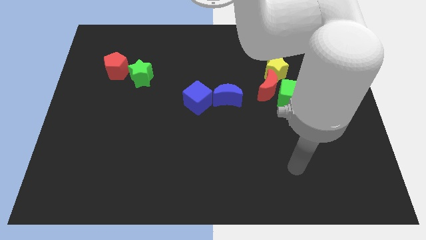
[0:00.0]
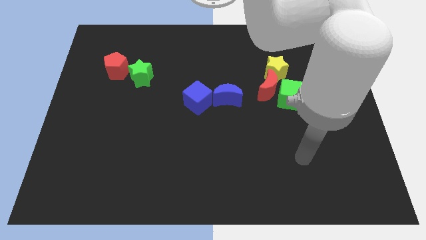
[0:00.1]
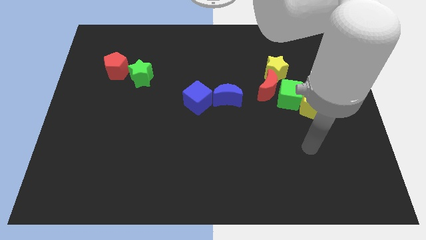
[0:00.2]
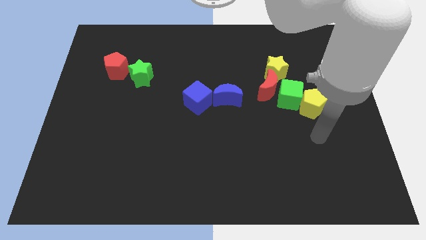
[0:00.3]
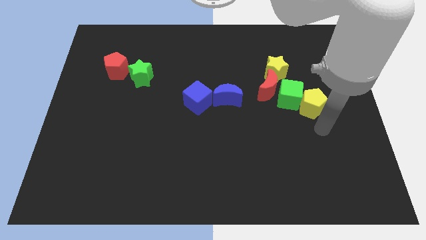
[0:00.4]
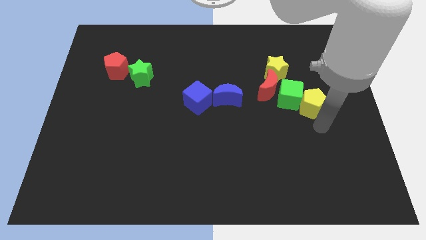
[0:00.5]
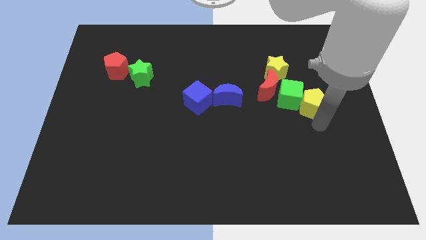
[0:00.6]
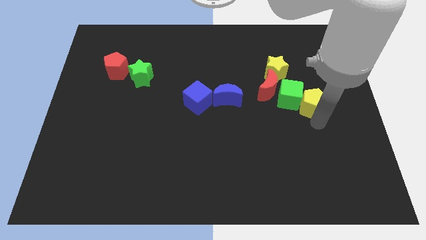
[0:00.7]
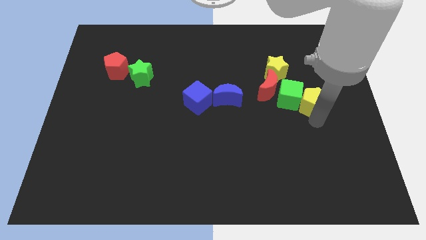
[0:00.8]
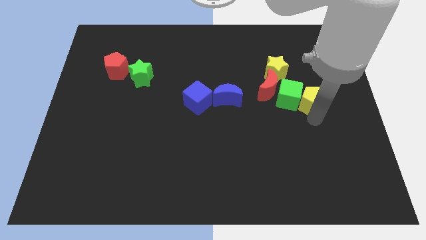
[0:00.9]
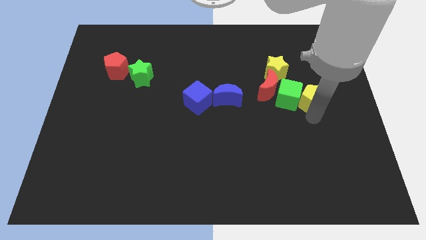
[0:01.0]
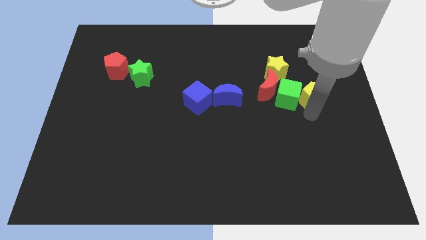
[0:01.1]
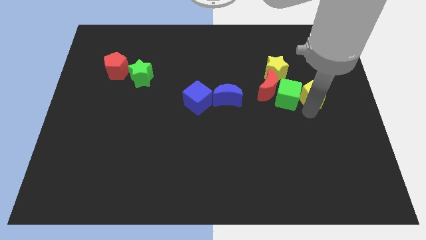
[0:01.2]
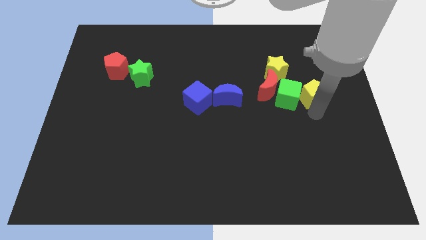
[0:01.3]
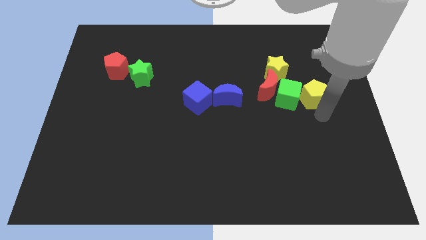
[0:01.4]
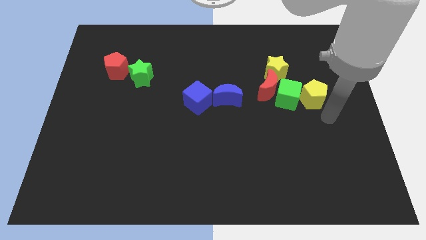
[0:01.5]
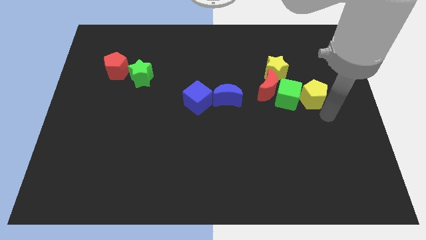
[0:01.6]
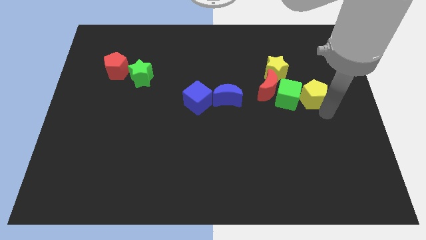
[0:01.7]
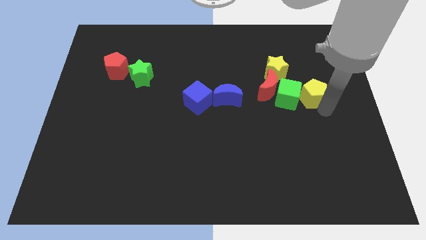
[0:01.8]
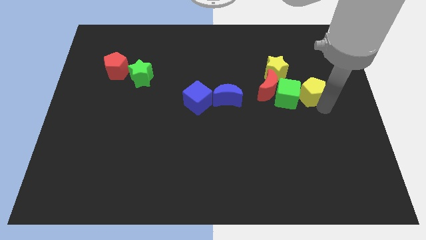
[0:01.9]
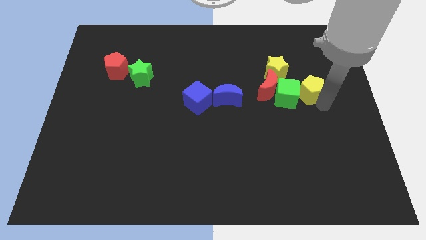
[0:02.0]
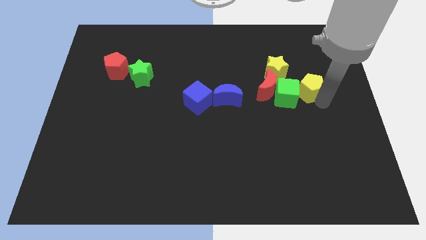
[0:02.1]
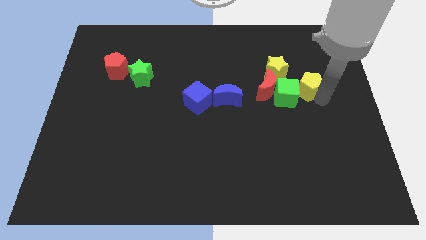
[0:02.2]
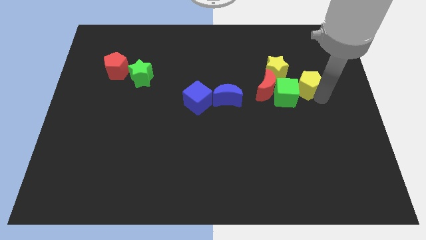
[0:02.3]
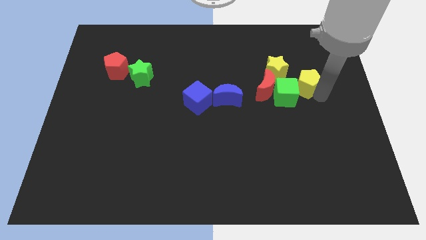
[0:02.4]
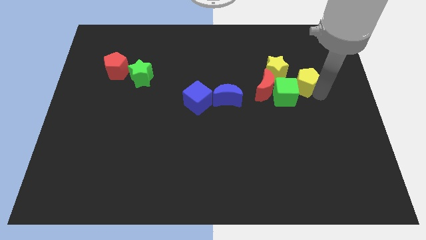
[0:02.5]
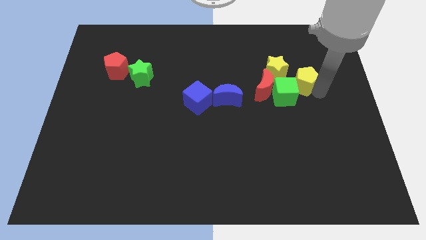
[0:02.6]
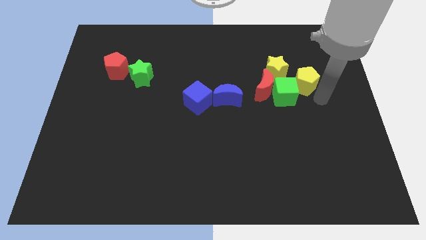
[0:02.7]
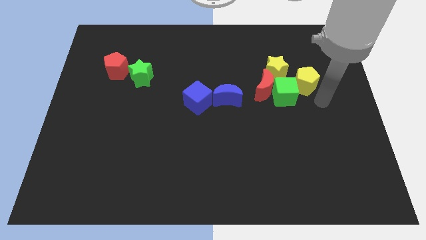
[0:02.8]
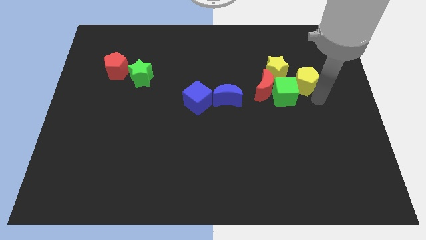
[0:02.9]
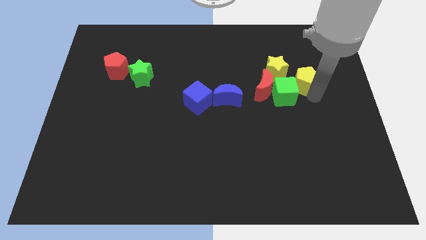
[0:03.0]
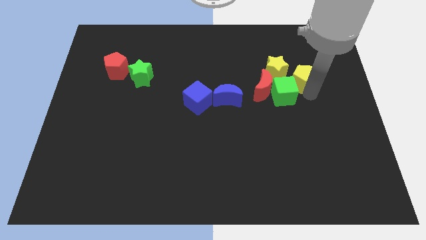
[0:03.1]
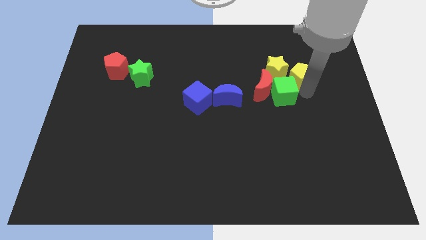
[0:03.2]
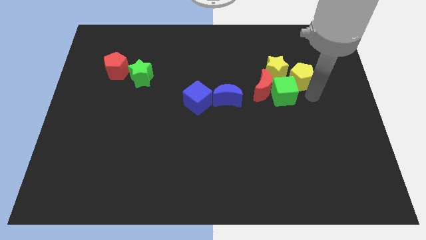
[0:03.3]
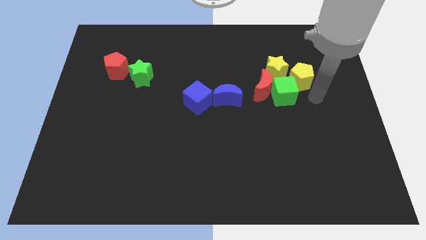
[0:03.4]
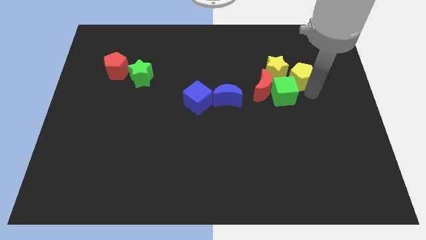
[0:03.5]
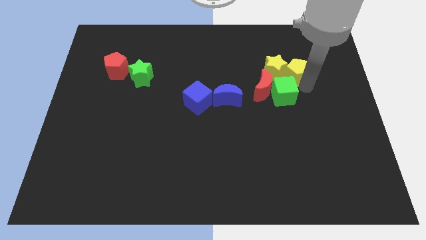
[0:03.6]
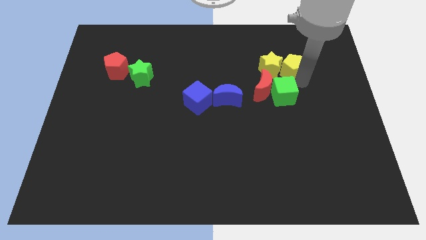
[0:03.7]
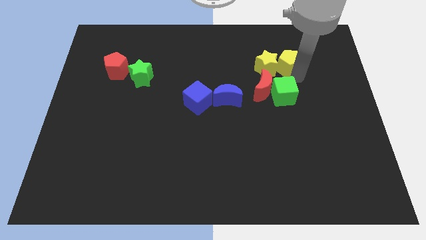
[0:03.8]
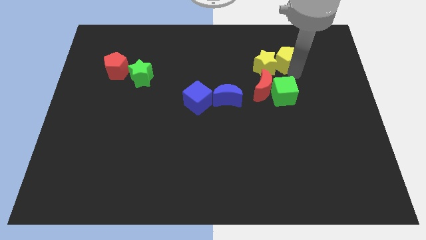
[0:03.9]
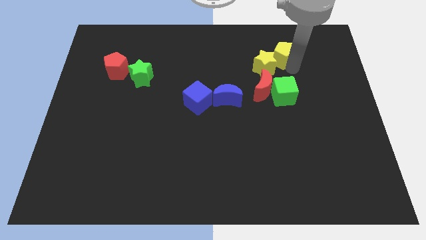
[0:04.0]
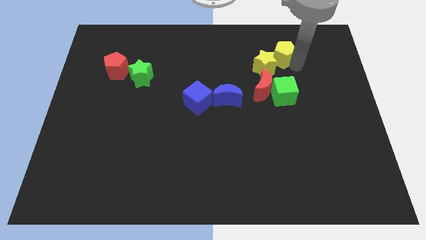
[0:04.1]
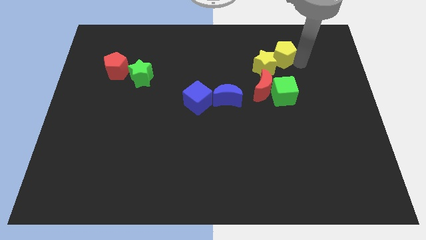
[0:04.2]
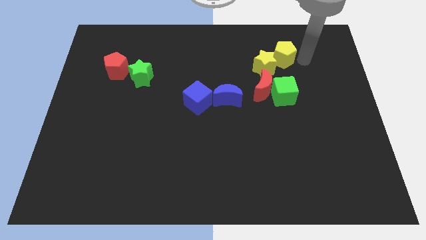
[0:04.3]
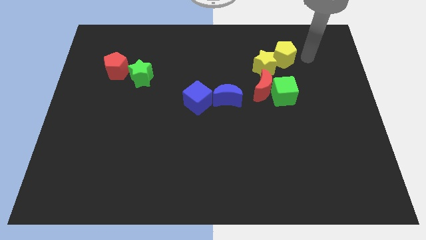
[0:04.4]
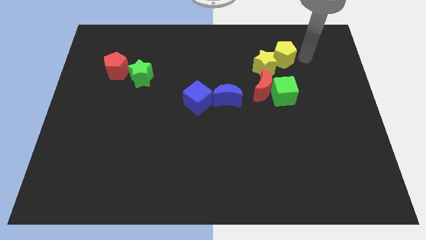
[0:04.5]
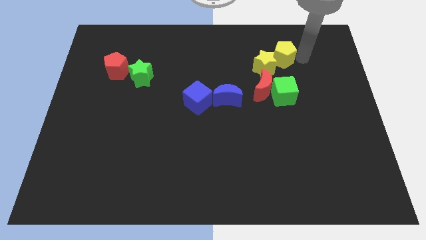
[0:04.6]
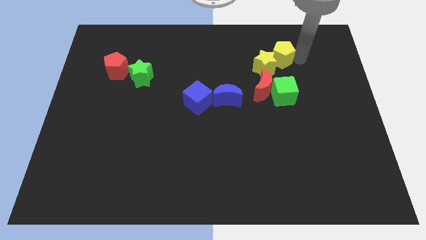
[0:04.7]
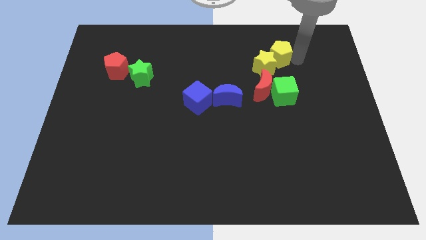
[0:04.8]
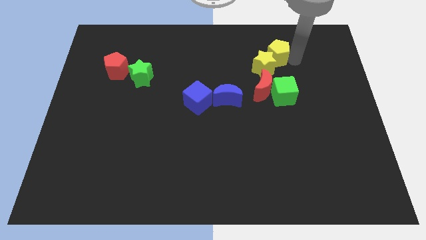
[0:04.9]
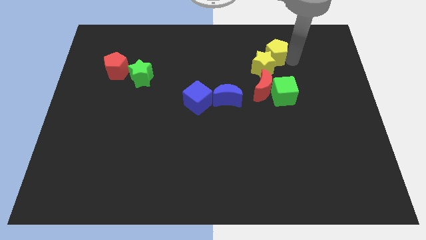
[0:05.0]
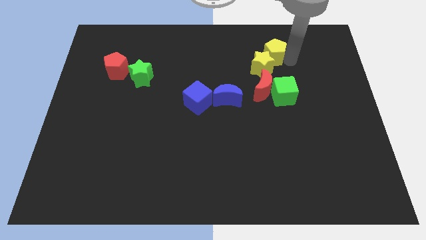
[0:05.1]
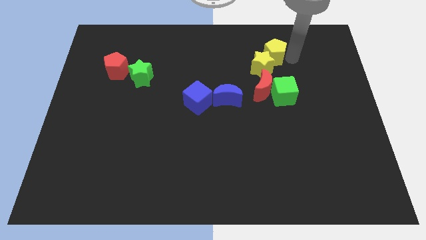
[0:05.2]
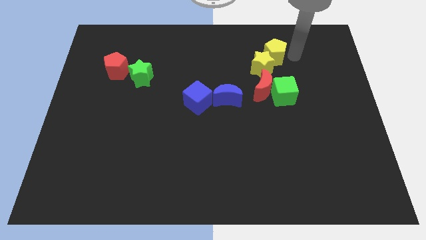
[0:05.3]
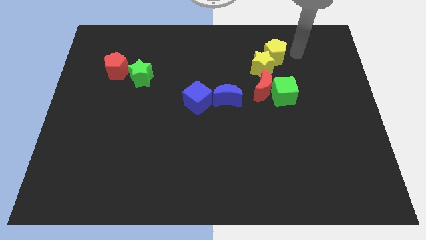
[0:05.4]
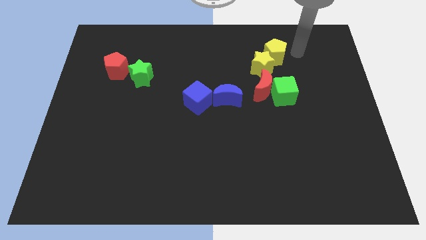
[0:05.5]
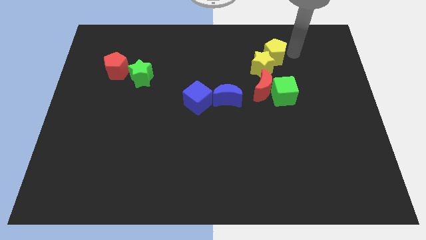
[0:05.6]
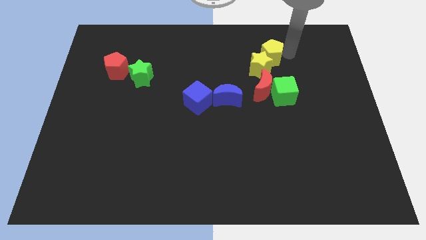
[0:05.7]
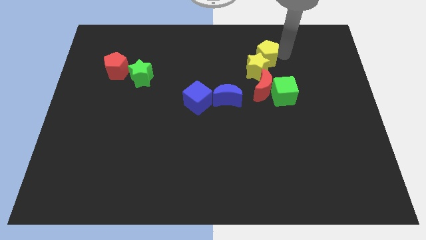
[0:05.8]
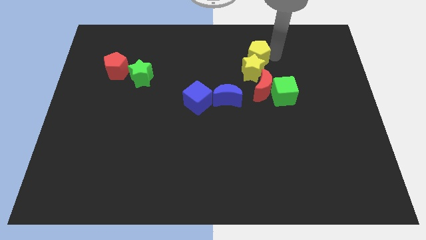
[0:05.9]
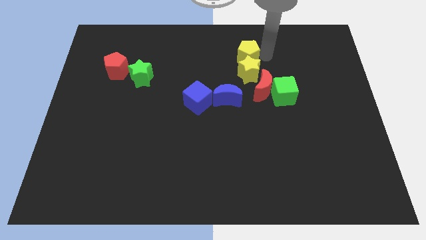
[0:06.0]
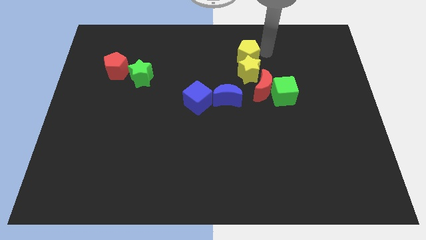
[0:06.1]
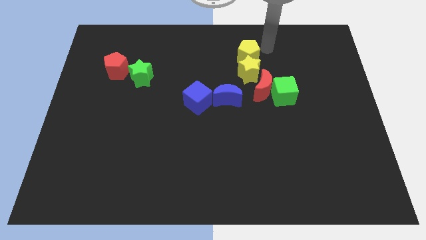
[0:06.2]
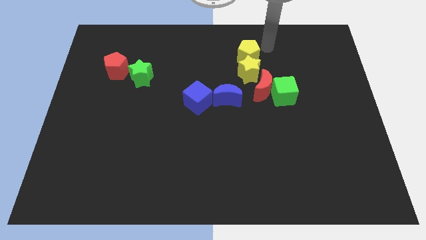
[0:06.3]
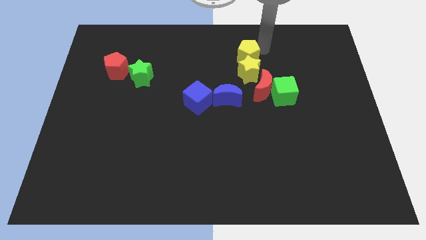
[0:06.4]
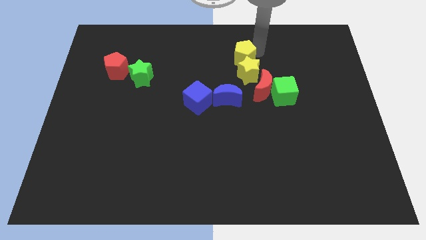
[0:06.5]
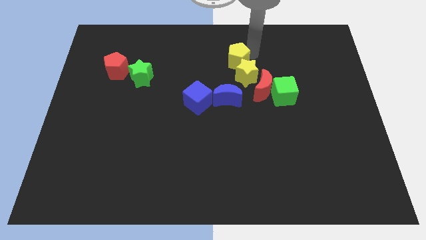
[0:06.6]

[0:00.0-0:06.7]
push the yellow pentagon above the blue moon
